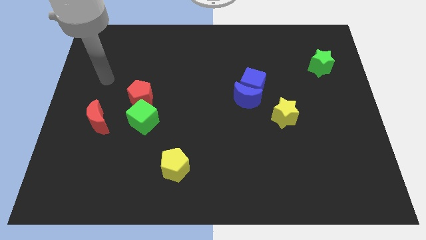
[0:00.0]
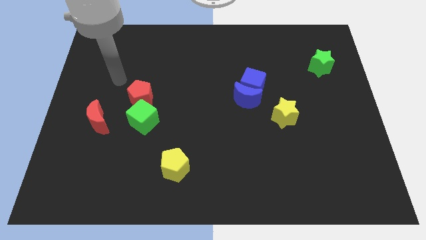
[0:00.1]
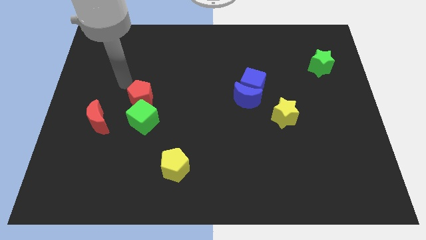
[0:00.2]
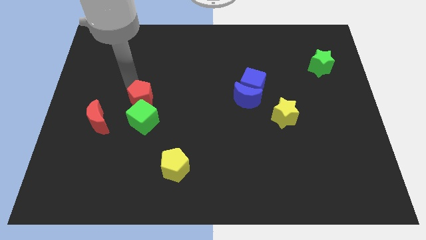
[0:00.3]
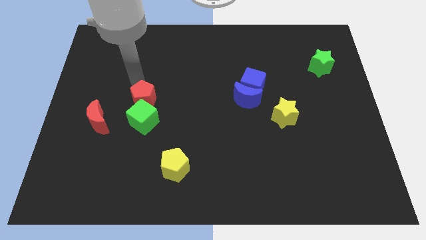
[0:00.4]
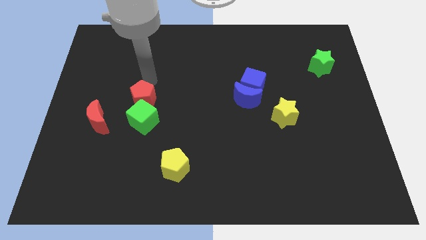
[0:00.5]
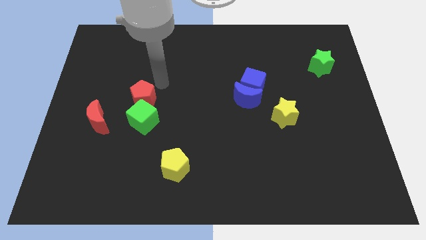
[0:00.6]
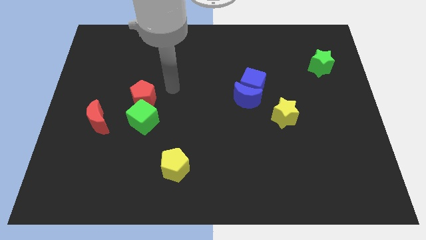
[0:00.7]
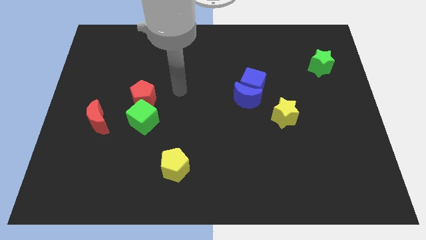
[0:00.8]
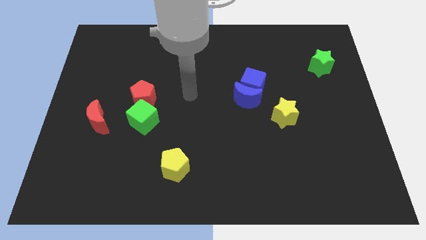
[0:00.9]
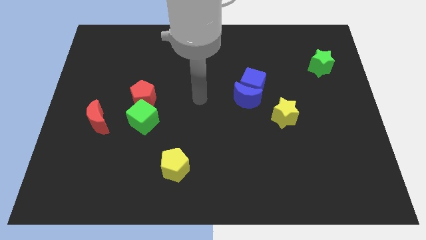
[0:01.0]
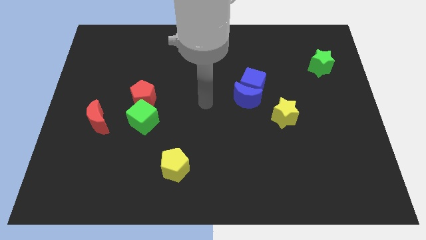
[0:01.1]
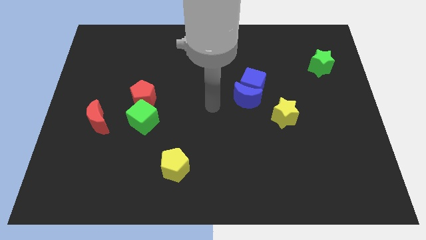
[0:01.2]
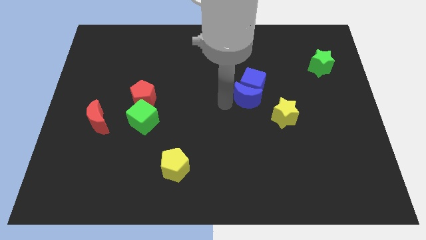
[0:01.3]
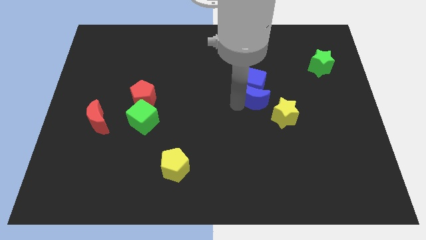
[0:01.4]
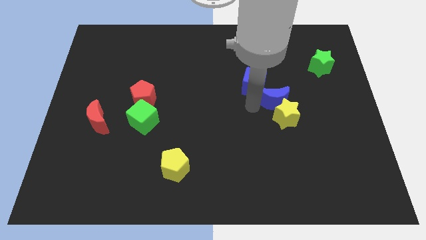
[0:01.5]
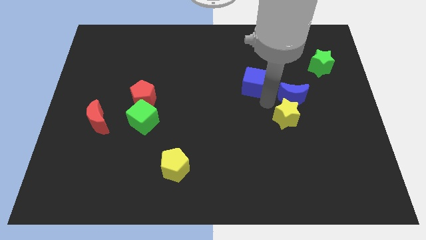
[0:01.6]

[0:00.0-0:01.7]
pull the blue cube apart from the blue moon

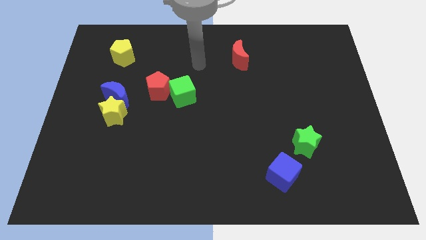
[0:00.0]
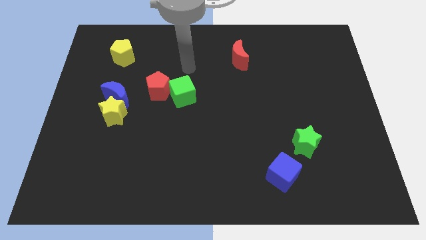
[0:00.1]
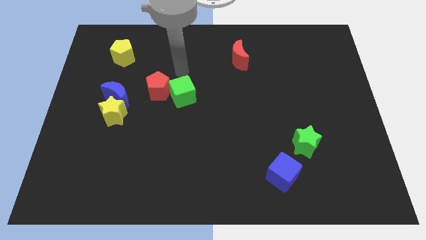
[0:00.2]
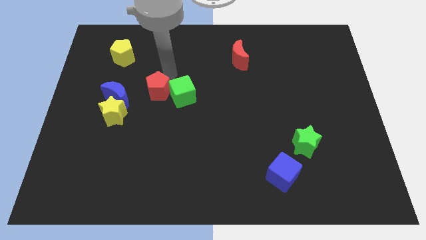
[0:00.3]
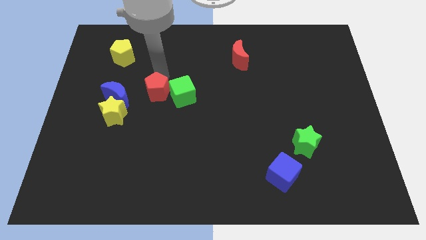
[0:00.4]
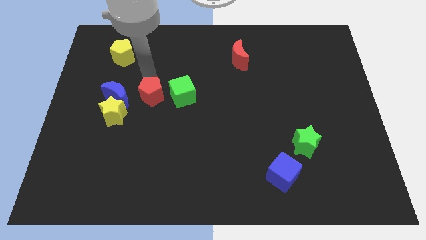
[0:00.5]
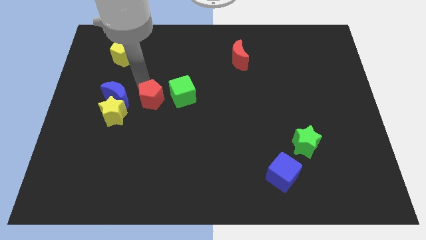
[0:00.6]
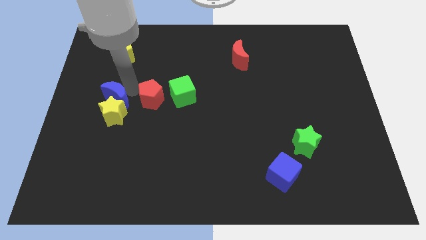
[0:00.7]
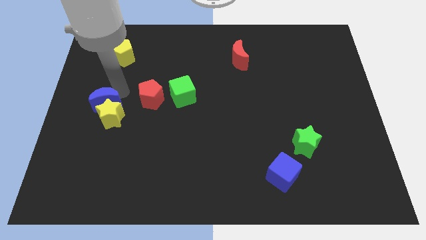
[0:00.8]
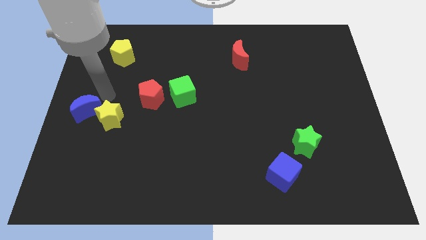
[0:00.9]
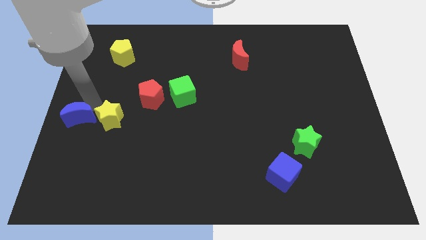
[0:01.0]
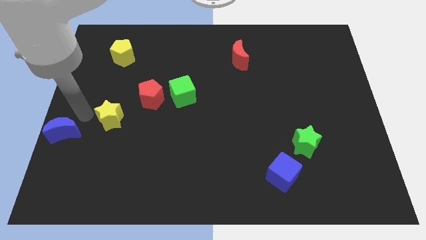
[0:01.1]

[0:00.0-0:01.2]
move the yellow star away from the blue moon

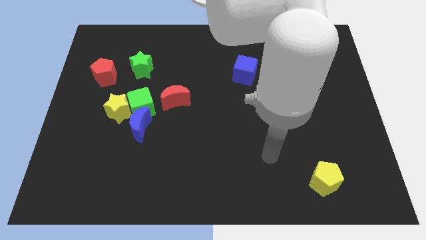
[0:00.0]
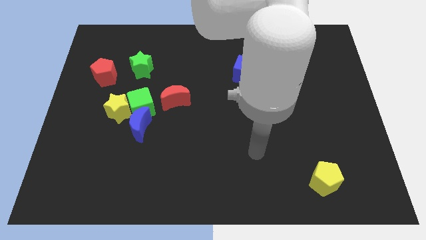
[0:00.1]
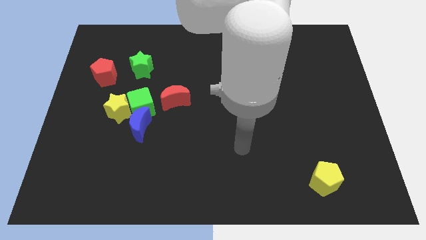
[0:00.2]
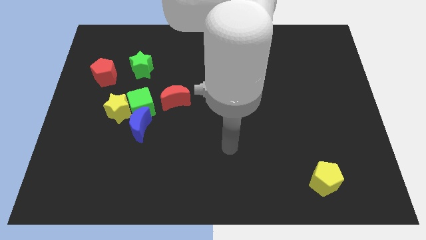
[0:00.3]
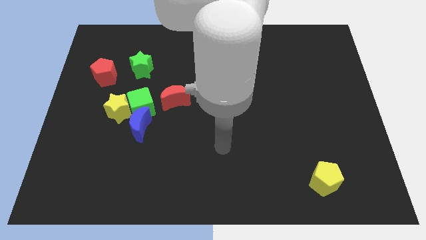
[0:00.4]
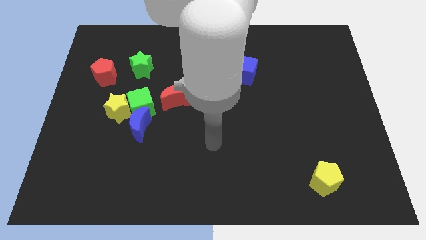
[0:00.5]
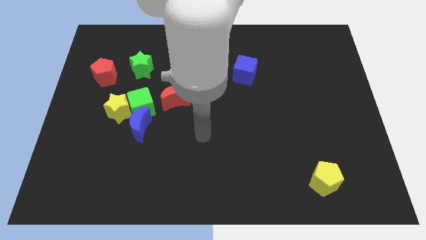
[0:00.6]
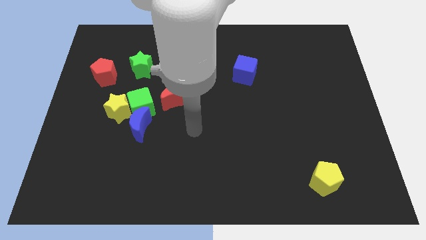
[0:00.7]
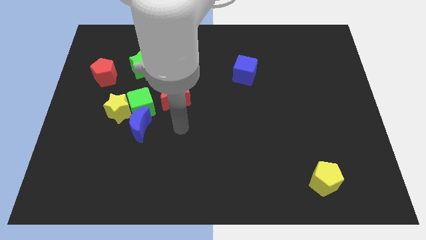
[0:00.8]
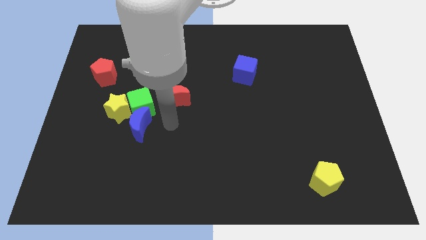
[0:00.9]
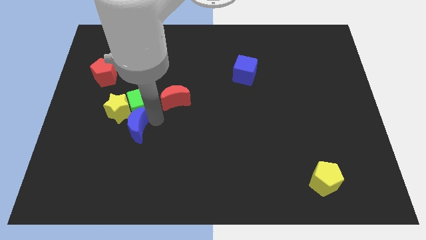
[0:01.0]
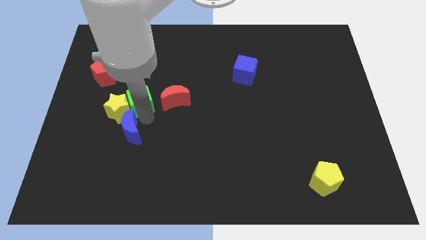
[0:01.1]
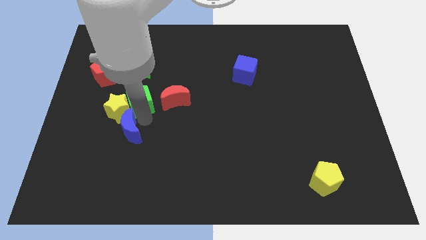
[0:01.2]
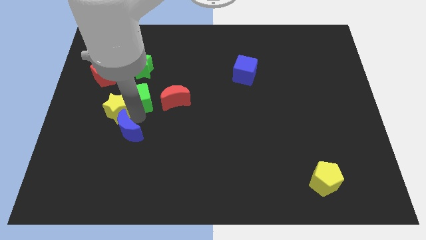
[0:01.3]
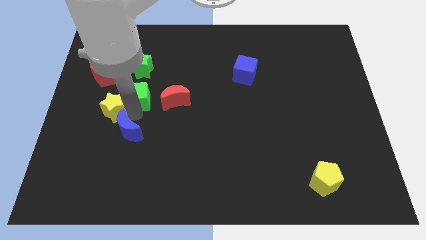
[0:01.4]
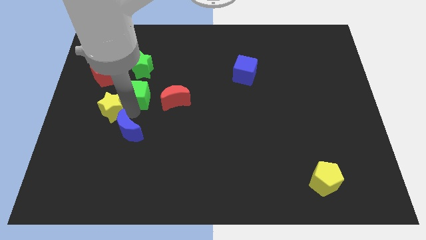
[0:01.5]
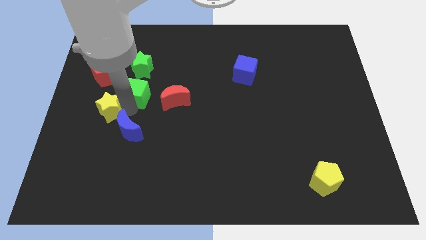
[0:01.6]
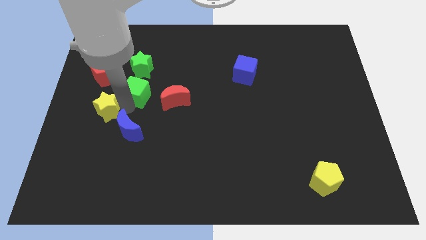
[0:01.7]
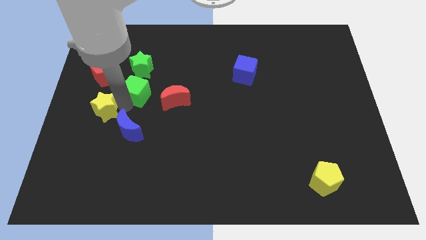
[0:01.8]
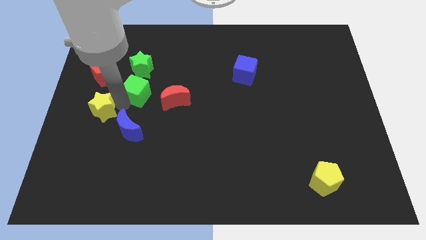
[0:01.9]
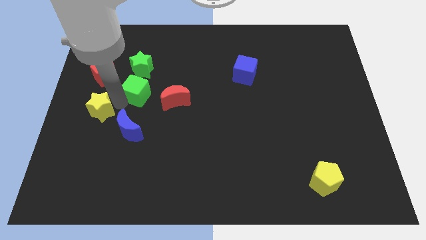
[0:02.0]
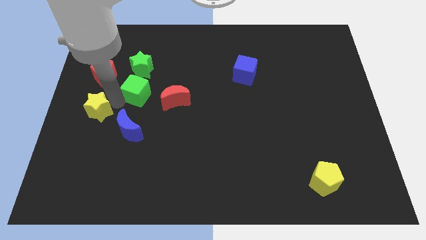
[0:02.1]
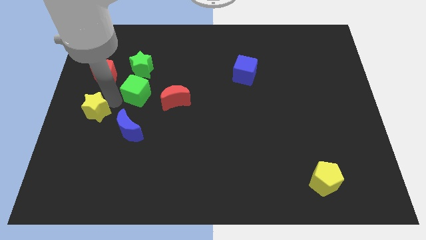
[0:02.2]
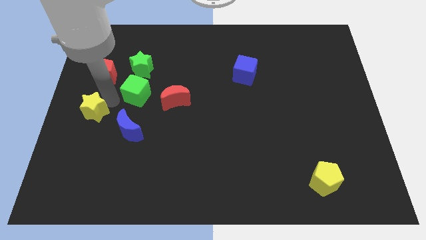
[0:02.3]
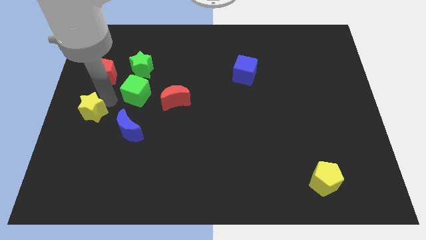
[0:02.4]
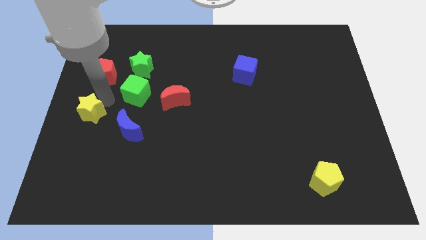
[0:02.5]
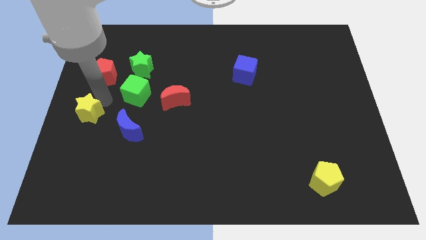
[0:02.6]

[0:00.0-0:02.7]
pull the yellow star apart from the green cube and blue moon

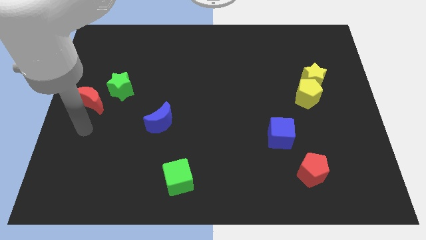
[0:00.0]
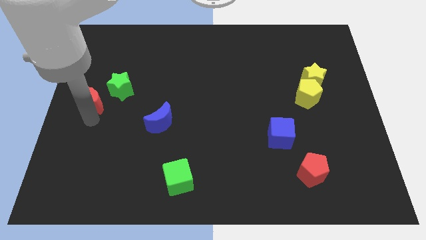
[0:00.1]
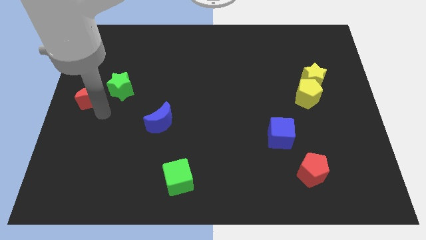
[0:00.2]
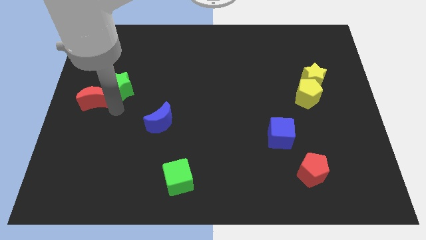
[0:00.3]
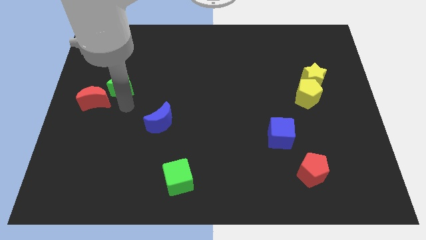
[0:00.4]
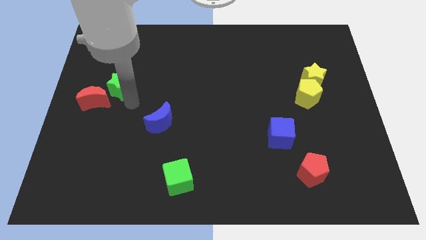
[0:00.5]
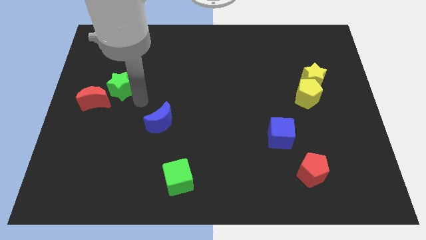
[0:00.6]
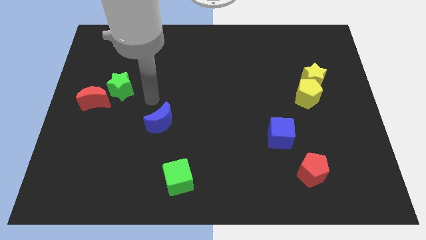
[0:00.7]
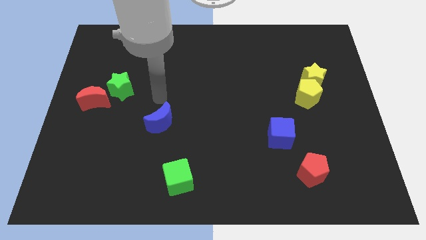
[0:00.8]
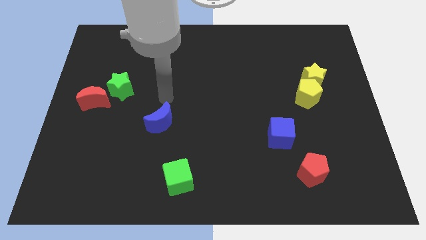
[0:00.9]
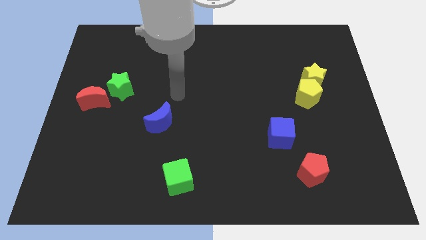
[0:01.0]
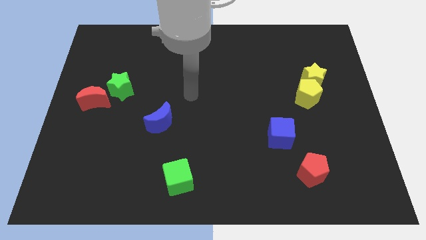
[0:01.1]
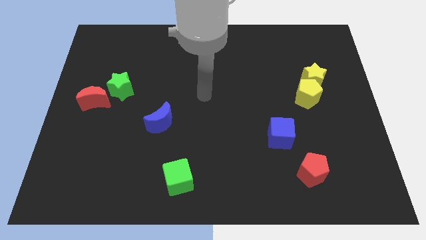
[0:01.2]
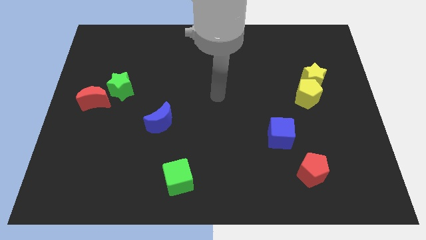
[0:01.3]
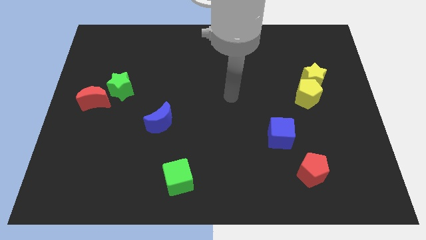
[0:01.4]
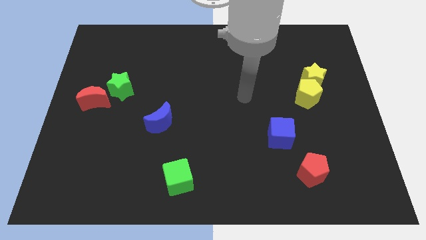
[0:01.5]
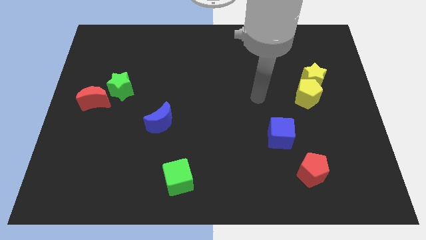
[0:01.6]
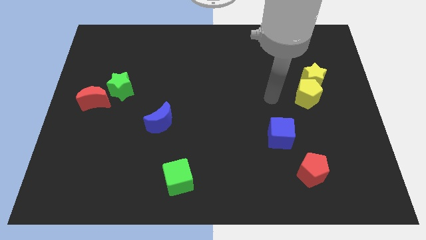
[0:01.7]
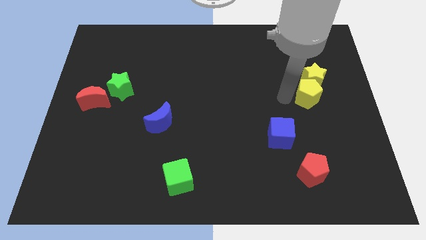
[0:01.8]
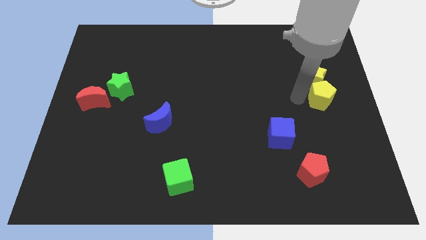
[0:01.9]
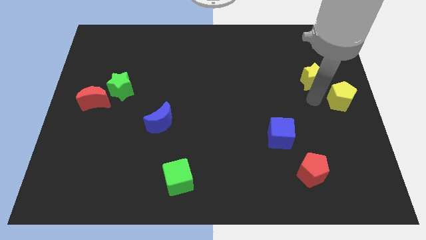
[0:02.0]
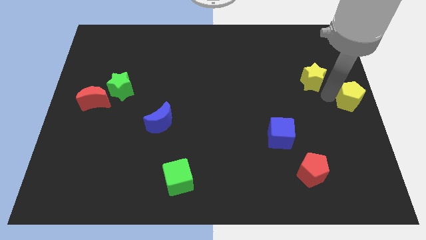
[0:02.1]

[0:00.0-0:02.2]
separate the yellow star from the yellow pentagon

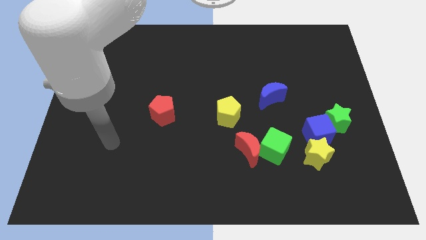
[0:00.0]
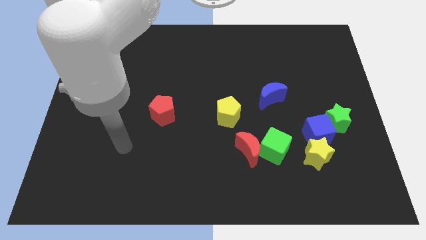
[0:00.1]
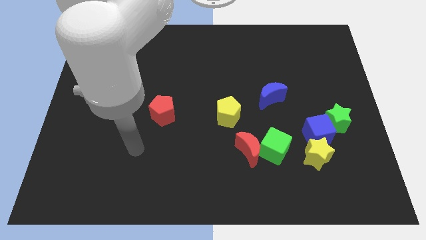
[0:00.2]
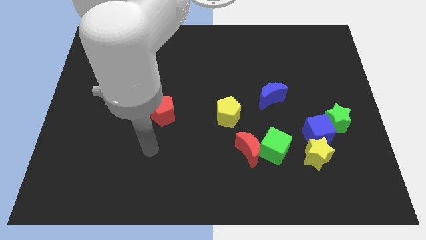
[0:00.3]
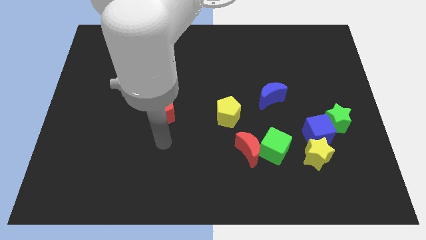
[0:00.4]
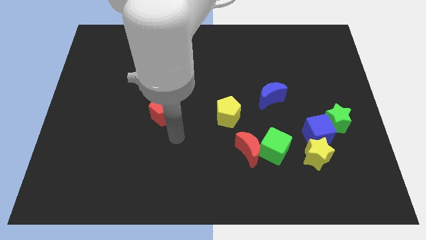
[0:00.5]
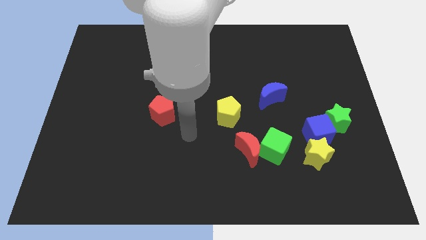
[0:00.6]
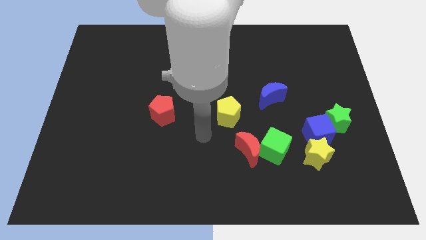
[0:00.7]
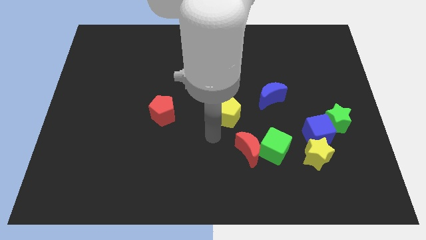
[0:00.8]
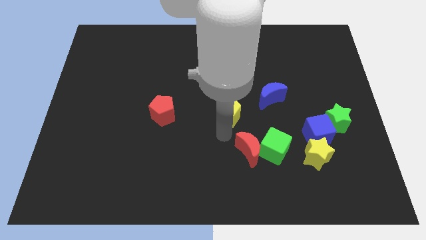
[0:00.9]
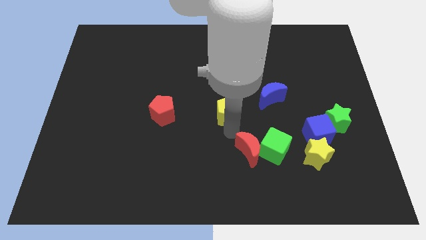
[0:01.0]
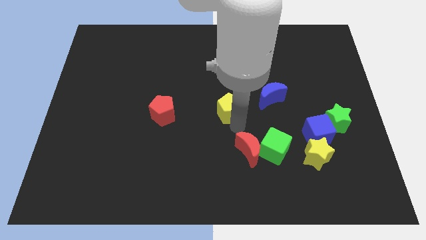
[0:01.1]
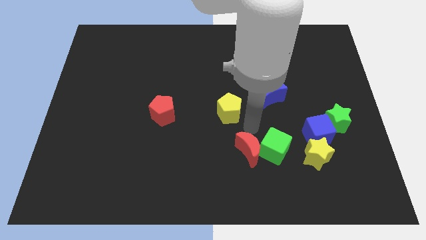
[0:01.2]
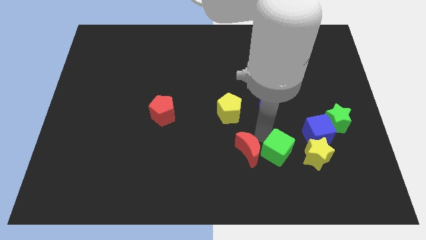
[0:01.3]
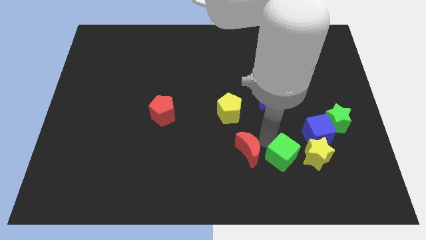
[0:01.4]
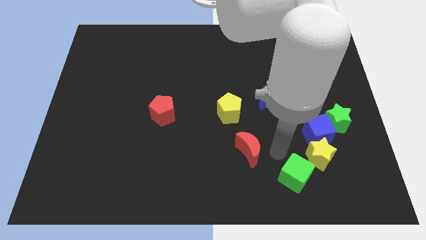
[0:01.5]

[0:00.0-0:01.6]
move the red moon away from the green cube
